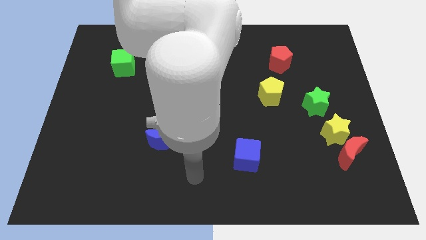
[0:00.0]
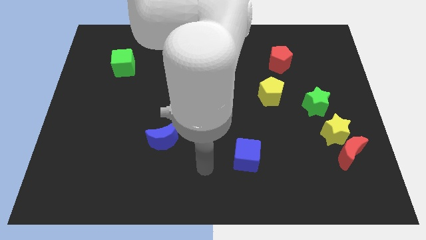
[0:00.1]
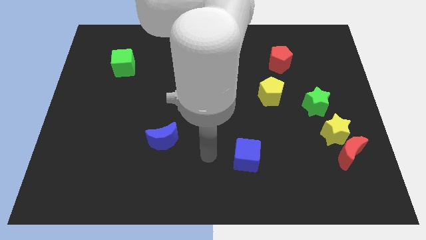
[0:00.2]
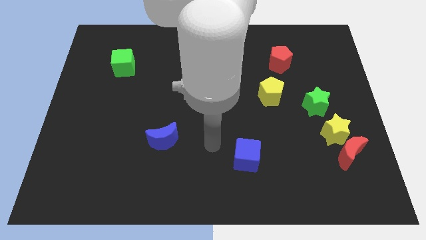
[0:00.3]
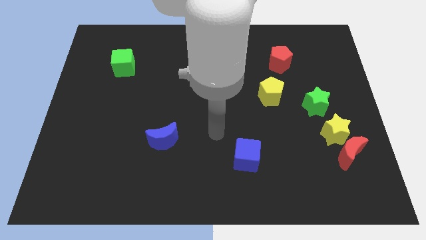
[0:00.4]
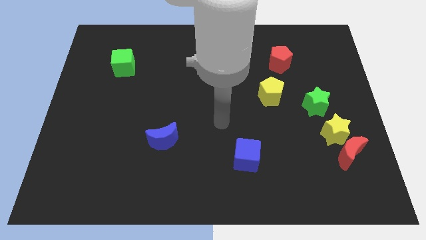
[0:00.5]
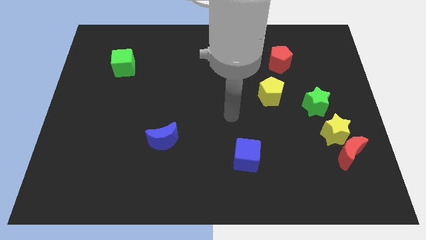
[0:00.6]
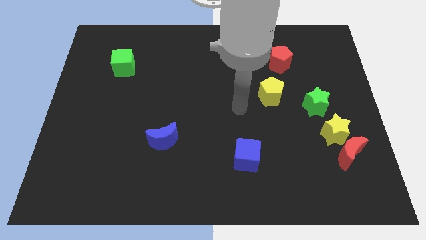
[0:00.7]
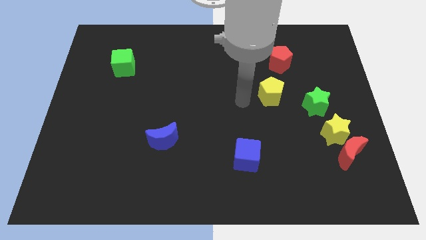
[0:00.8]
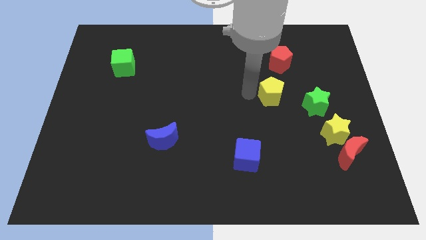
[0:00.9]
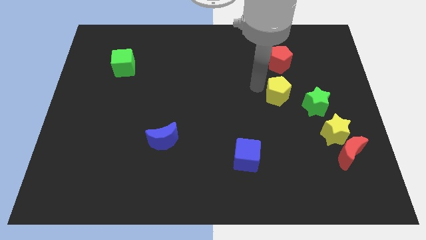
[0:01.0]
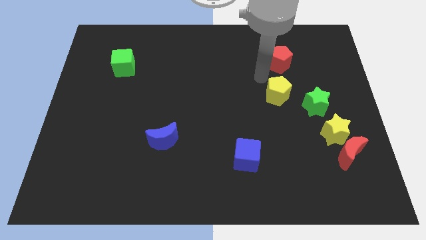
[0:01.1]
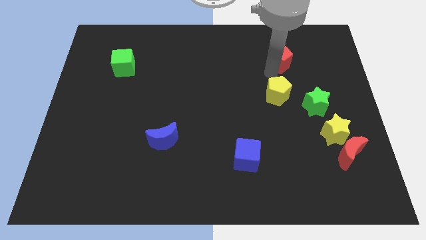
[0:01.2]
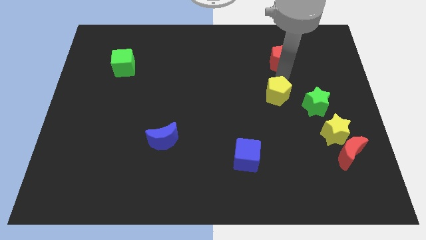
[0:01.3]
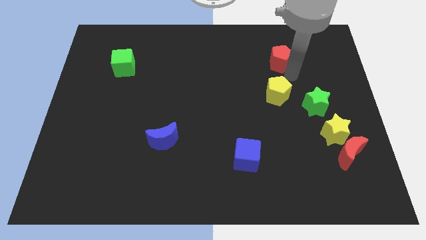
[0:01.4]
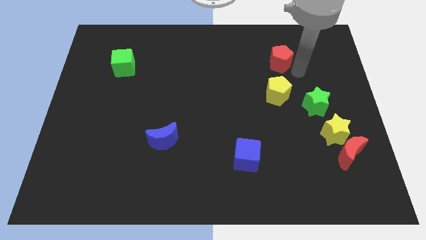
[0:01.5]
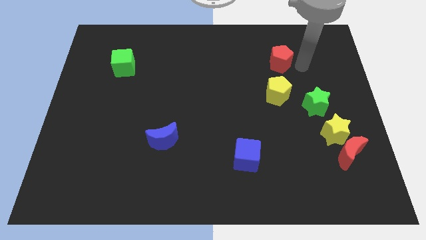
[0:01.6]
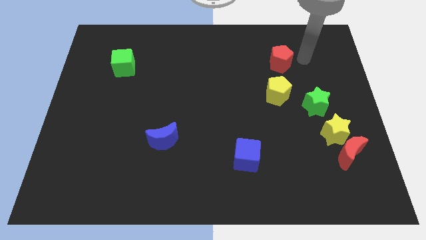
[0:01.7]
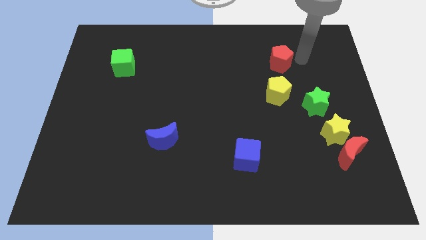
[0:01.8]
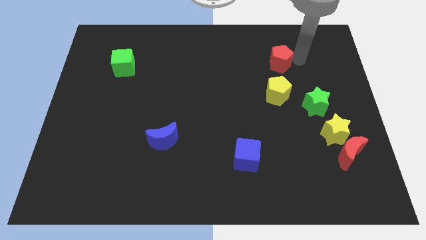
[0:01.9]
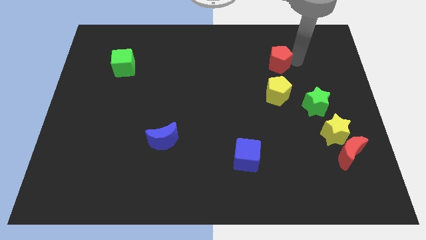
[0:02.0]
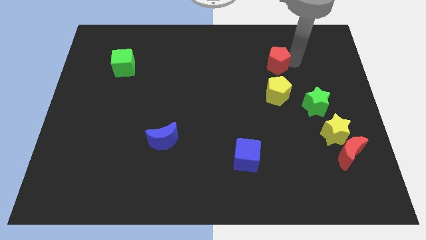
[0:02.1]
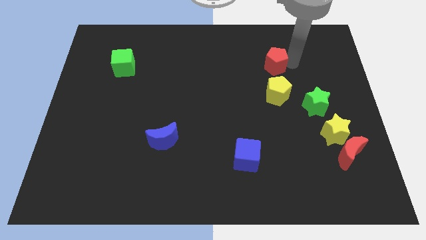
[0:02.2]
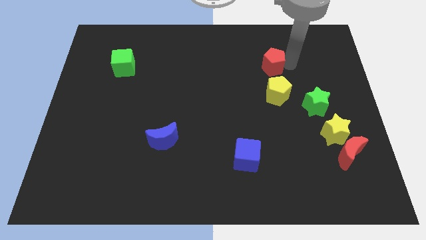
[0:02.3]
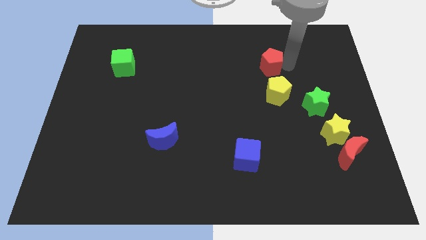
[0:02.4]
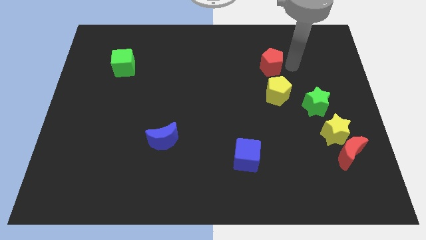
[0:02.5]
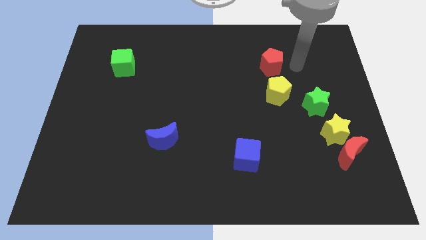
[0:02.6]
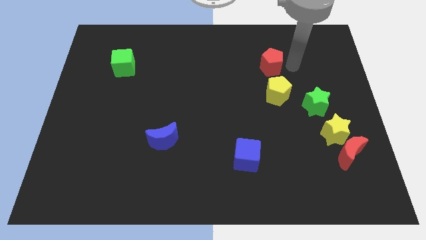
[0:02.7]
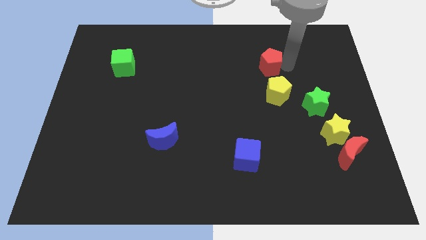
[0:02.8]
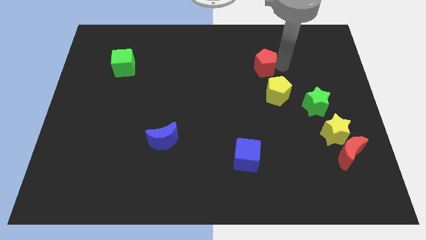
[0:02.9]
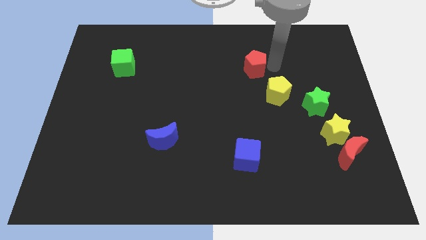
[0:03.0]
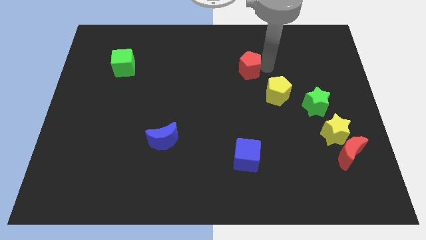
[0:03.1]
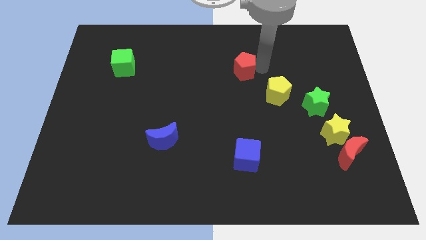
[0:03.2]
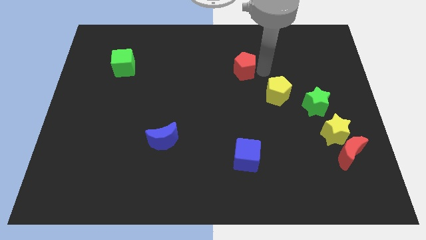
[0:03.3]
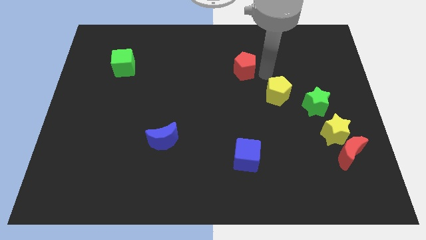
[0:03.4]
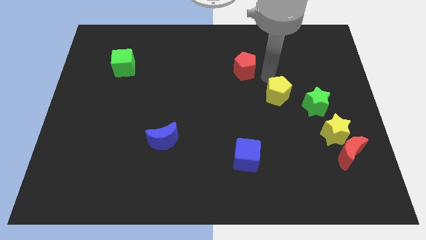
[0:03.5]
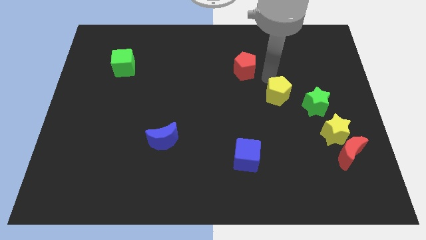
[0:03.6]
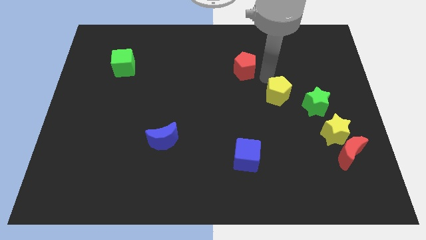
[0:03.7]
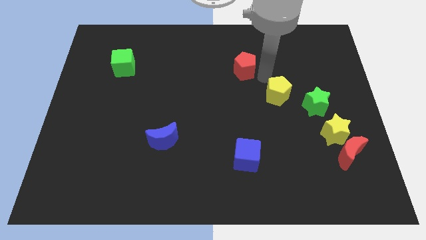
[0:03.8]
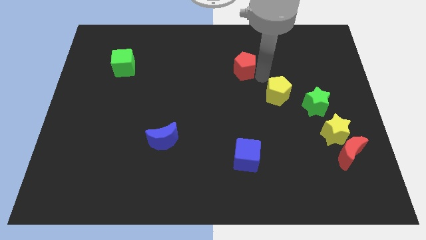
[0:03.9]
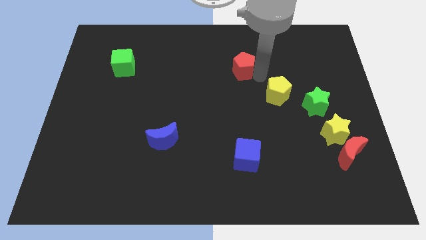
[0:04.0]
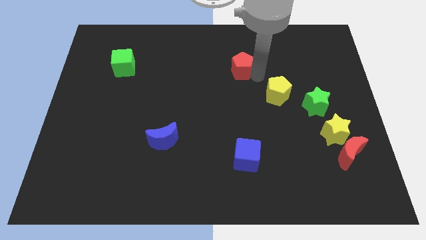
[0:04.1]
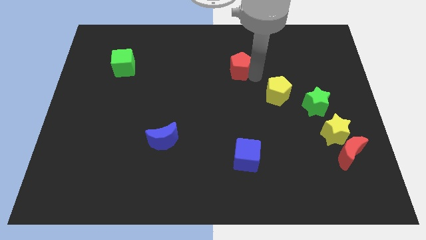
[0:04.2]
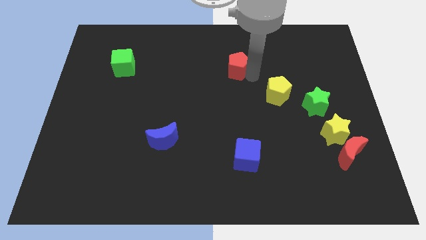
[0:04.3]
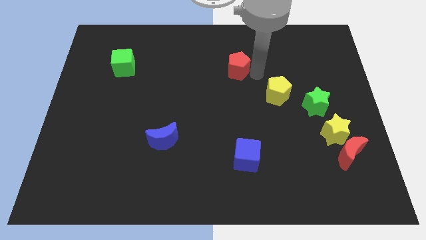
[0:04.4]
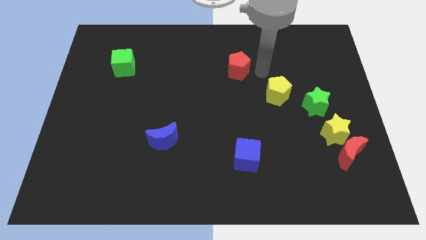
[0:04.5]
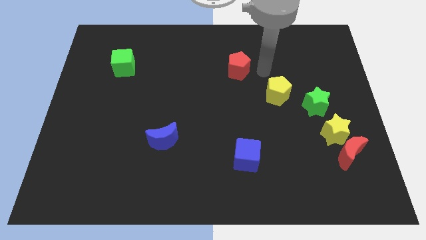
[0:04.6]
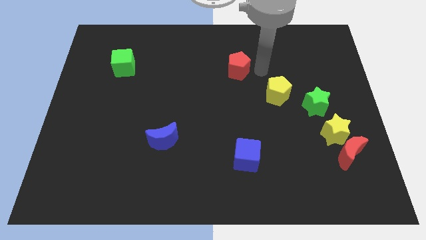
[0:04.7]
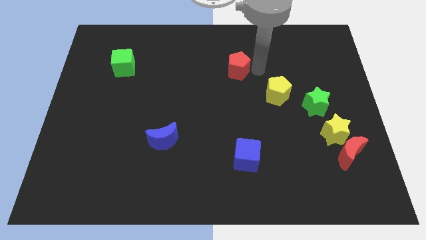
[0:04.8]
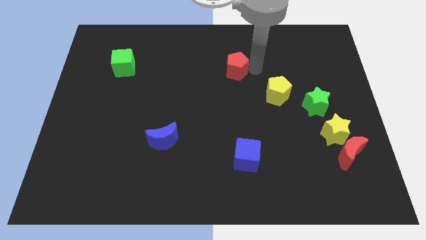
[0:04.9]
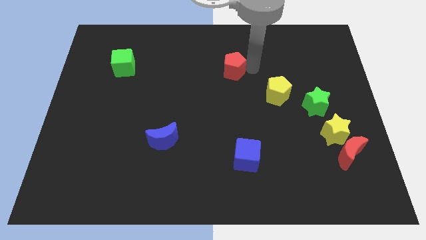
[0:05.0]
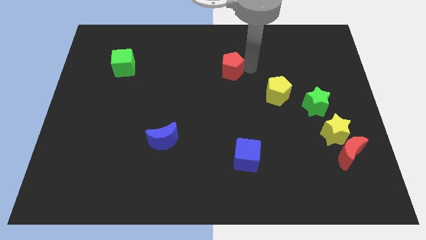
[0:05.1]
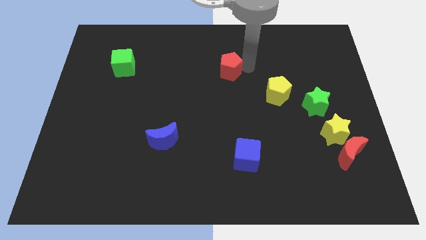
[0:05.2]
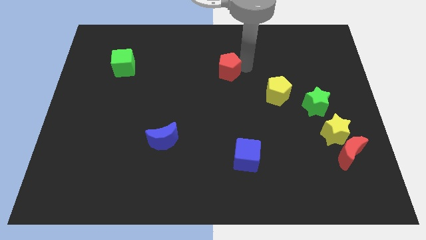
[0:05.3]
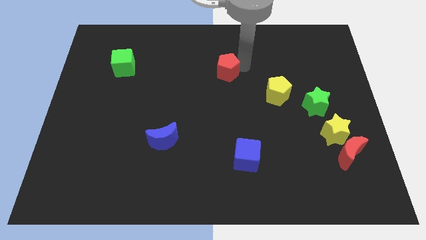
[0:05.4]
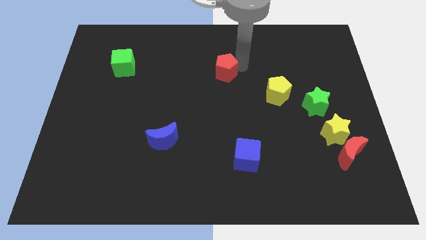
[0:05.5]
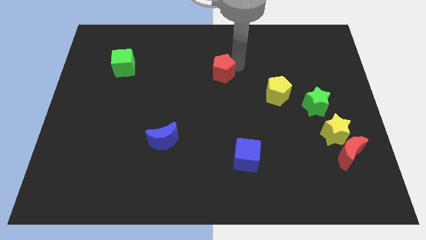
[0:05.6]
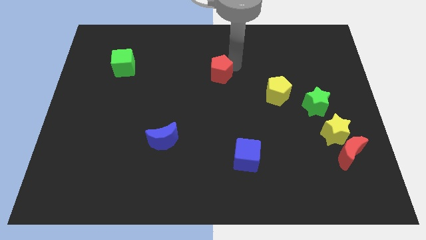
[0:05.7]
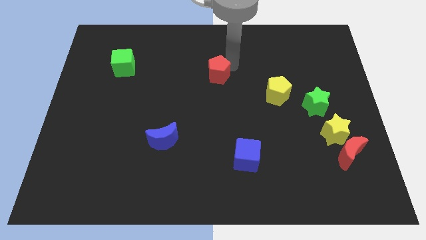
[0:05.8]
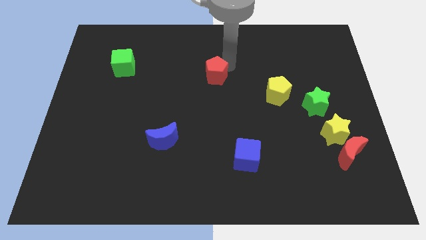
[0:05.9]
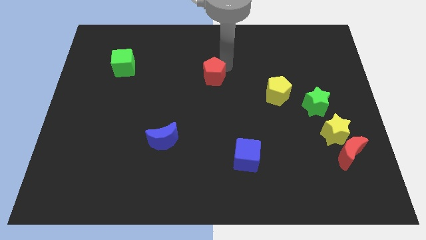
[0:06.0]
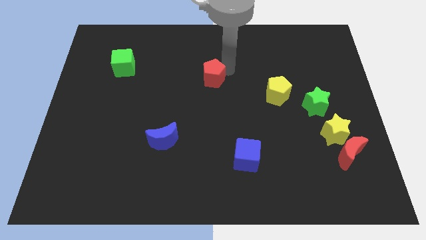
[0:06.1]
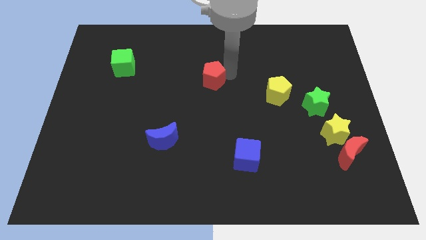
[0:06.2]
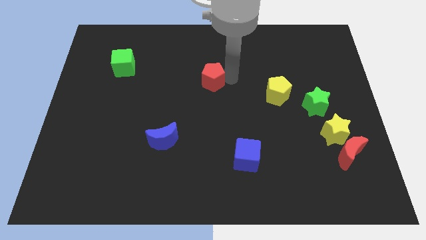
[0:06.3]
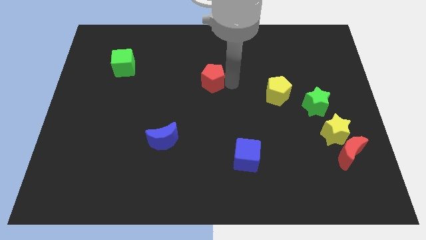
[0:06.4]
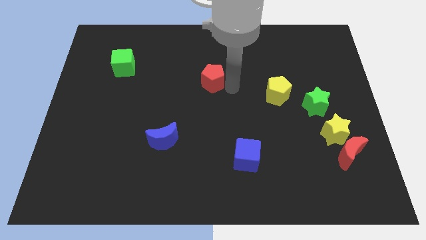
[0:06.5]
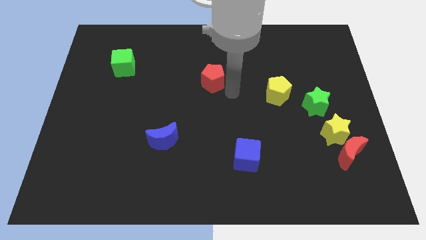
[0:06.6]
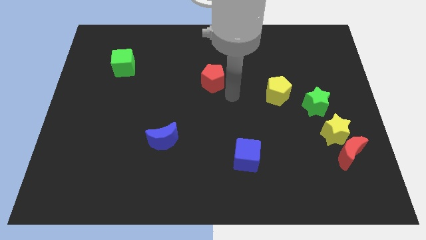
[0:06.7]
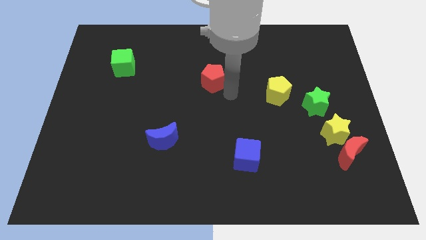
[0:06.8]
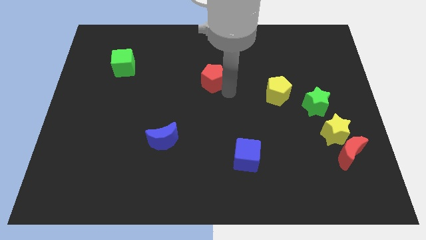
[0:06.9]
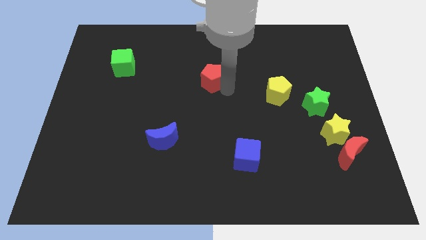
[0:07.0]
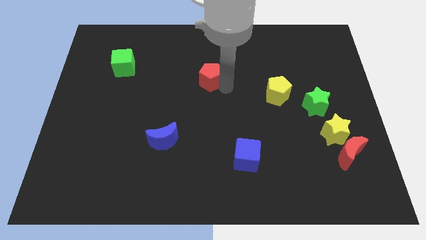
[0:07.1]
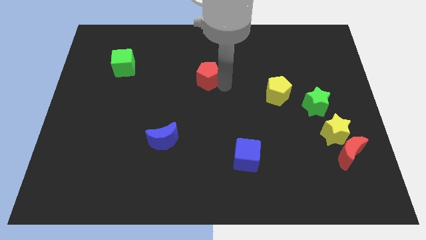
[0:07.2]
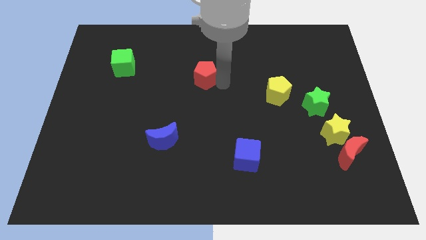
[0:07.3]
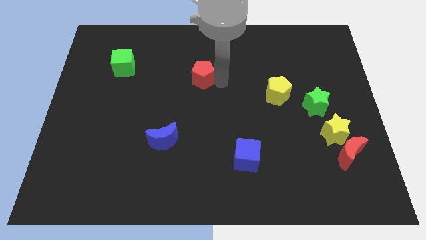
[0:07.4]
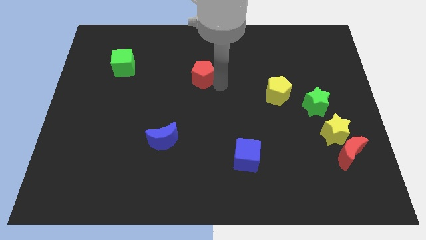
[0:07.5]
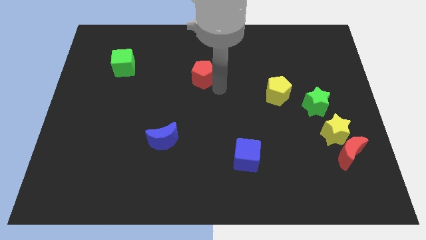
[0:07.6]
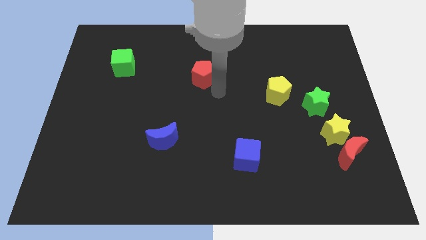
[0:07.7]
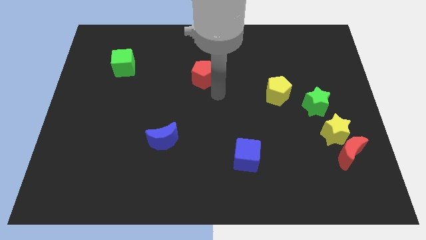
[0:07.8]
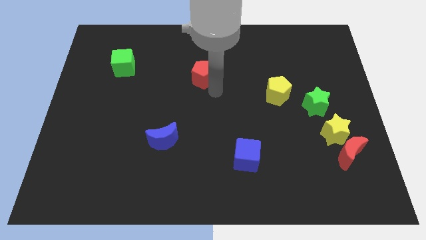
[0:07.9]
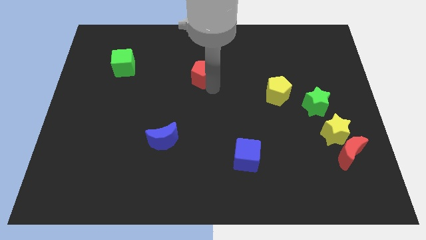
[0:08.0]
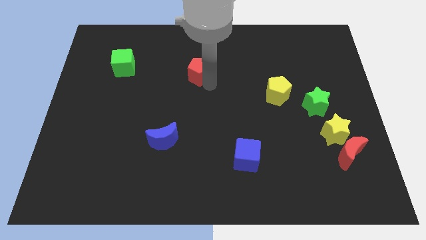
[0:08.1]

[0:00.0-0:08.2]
move the red pentagon left

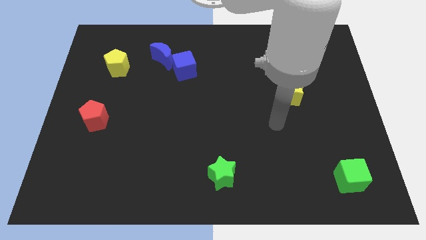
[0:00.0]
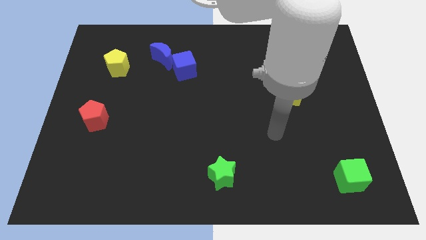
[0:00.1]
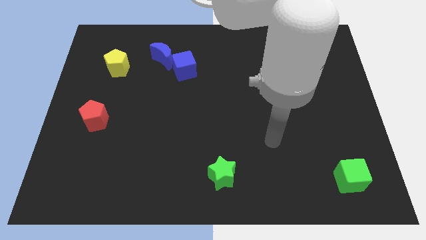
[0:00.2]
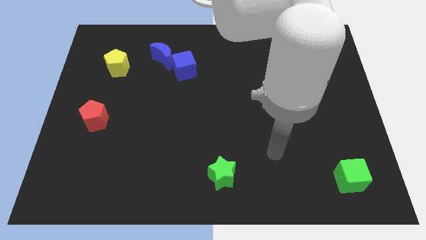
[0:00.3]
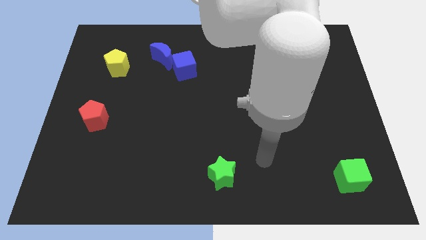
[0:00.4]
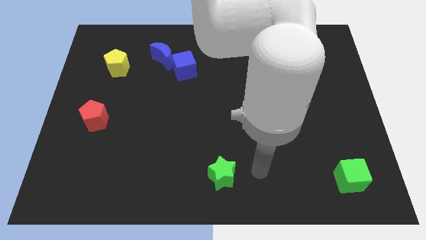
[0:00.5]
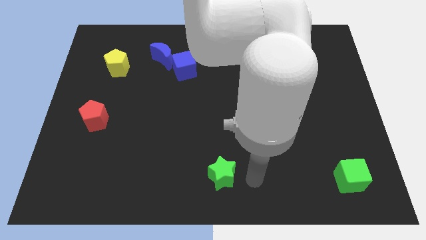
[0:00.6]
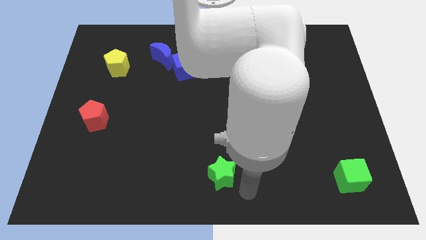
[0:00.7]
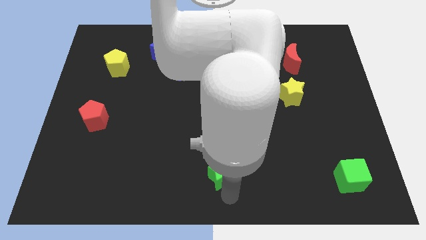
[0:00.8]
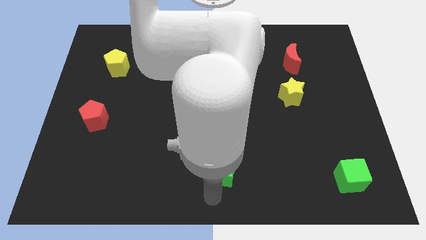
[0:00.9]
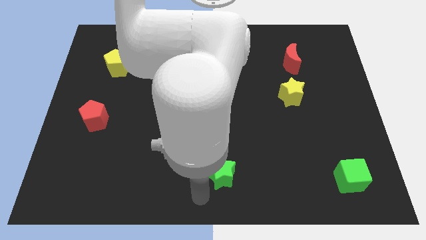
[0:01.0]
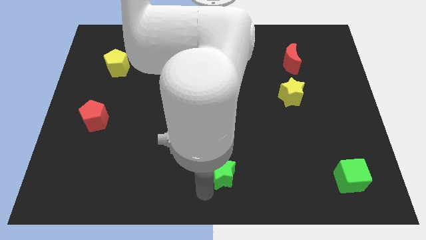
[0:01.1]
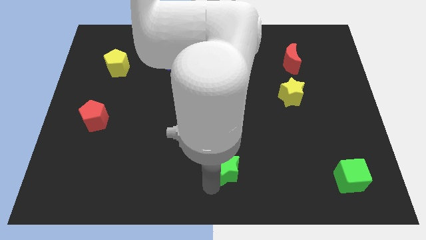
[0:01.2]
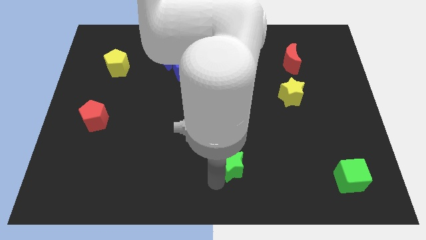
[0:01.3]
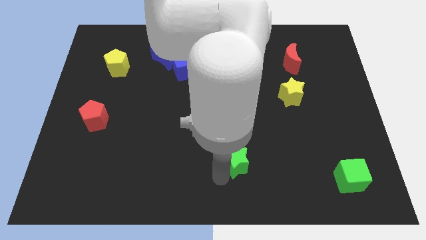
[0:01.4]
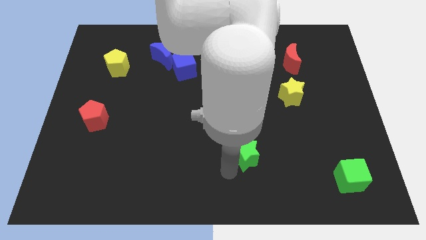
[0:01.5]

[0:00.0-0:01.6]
push the green star diagonally upwards and to the right somewhat
